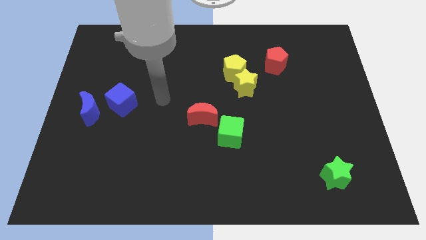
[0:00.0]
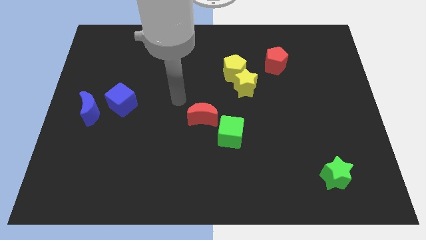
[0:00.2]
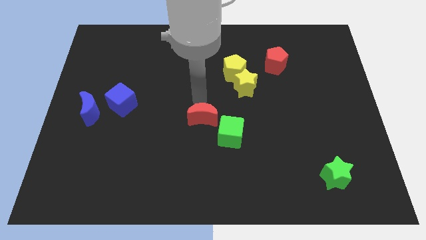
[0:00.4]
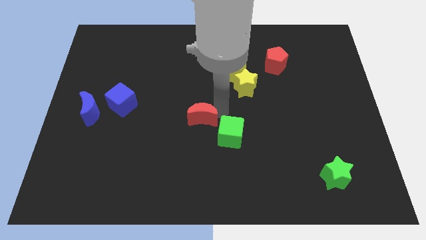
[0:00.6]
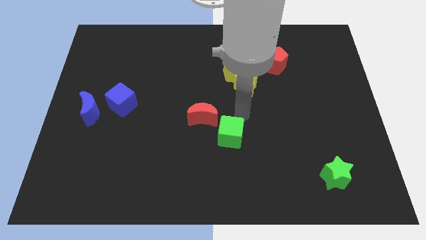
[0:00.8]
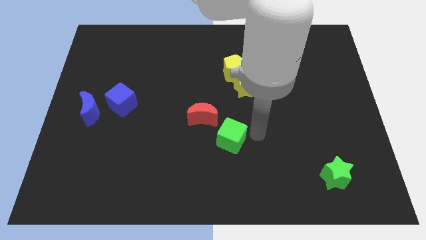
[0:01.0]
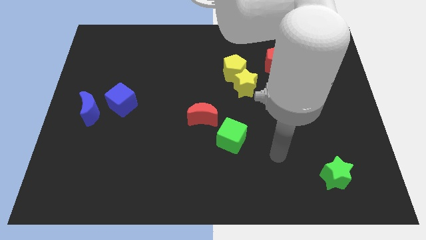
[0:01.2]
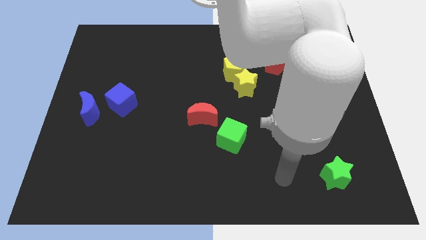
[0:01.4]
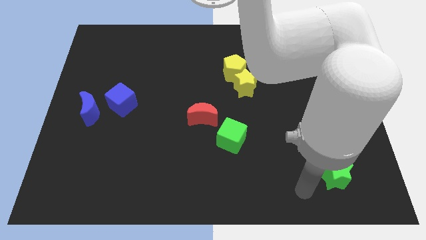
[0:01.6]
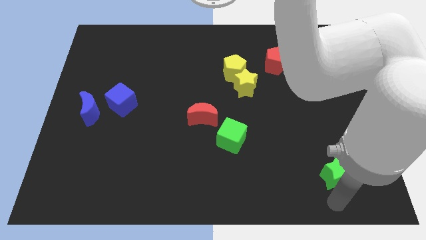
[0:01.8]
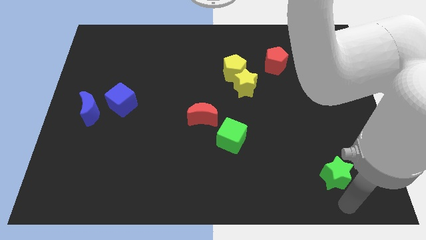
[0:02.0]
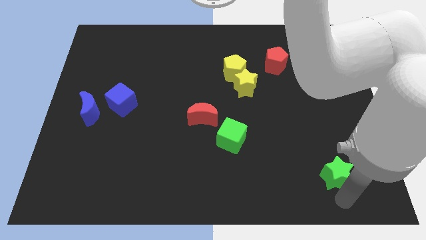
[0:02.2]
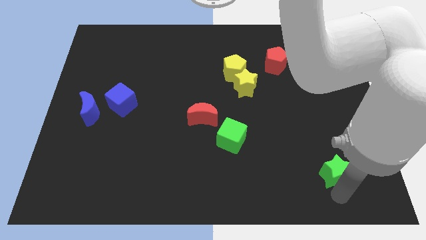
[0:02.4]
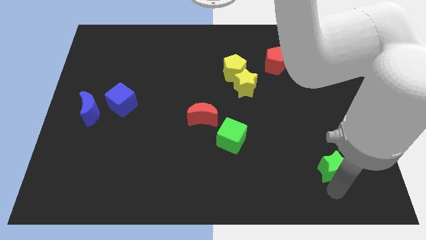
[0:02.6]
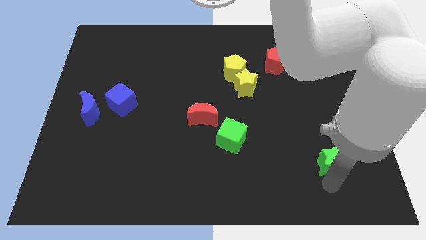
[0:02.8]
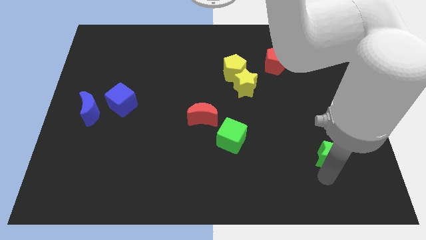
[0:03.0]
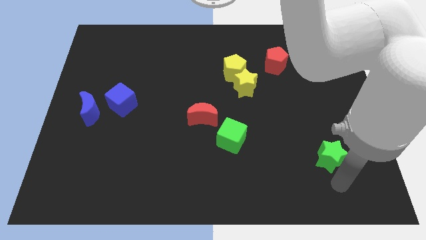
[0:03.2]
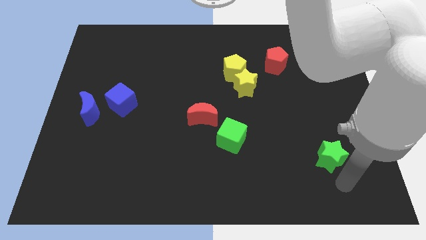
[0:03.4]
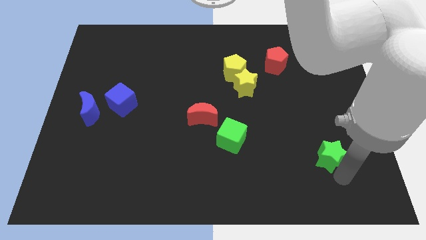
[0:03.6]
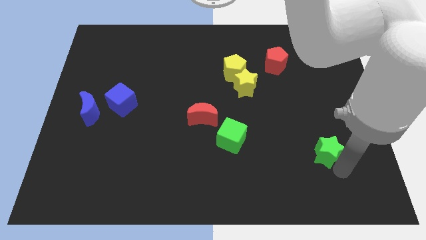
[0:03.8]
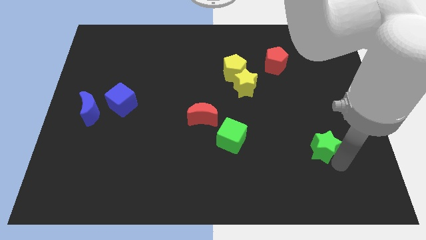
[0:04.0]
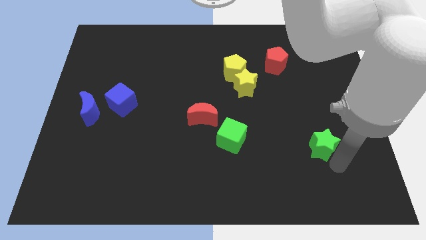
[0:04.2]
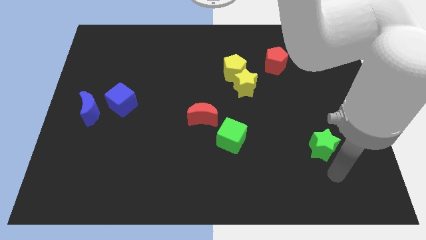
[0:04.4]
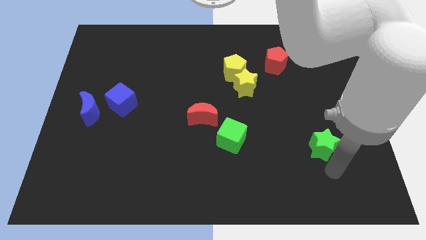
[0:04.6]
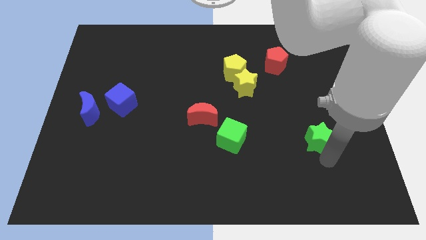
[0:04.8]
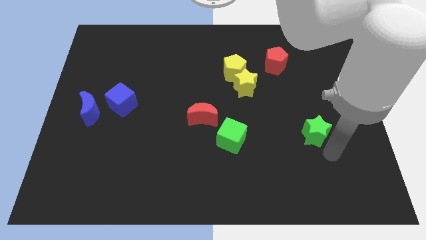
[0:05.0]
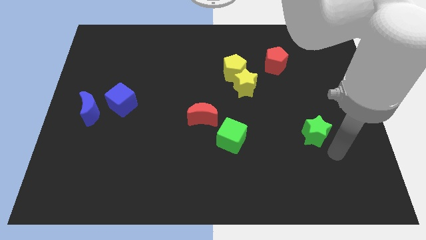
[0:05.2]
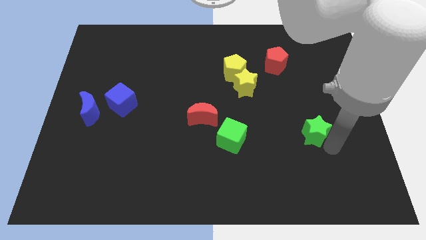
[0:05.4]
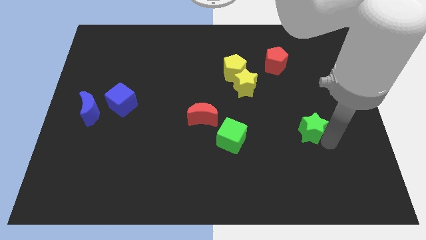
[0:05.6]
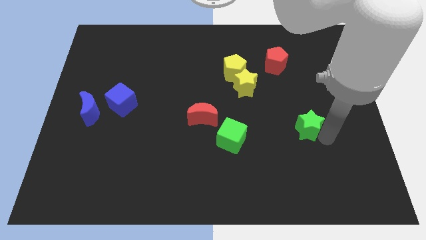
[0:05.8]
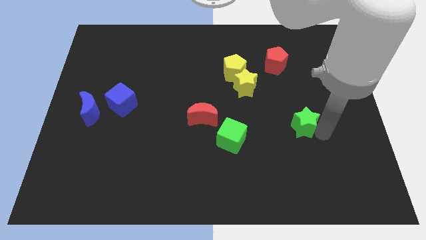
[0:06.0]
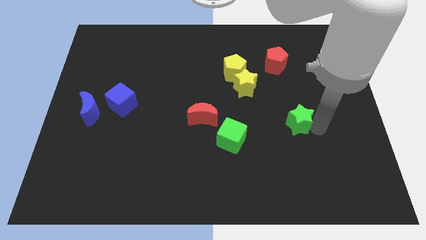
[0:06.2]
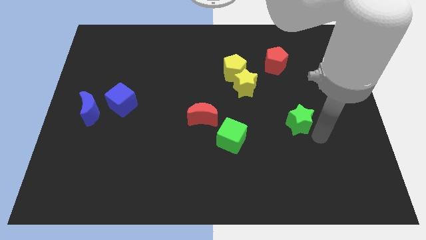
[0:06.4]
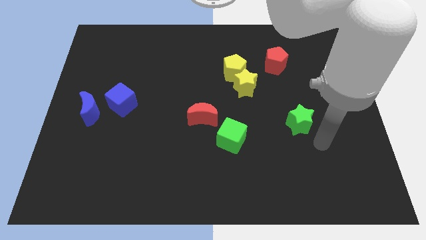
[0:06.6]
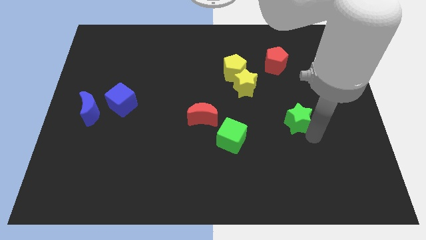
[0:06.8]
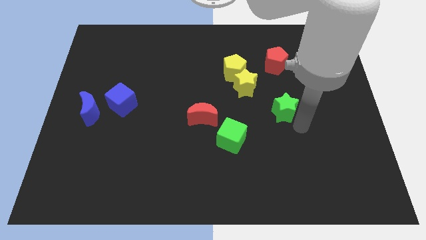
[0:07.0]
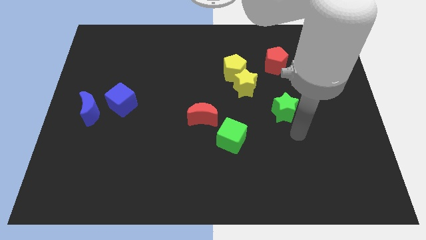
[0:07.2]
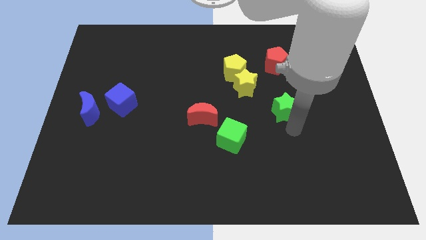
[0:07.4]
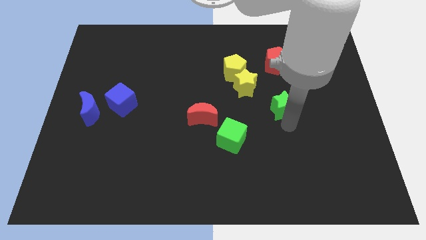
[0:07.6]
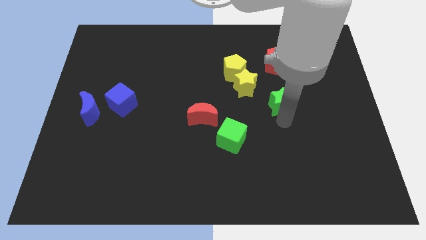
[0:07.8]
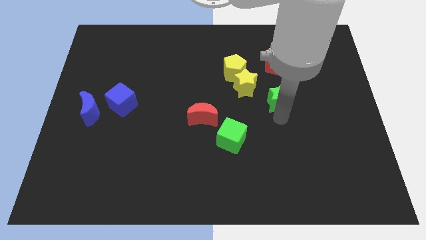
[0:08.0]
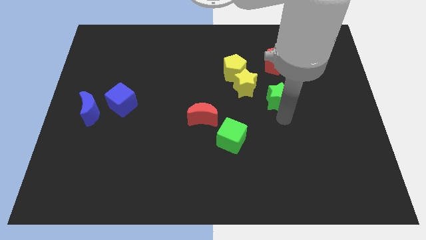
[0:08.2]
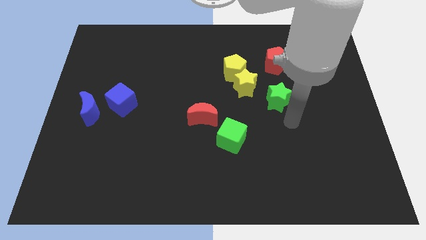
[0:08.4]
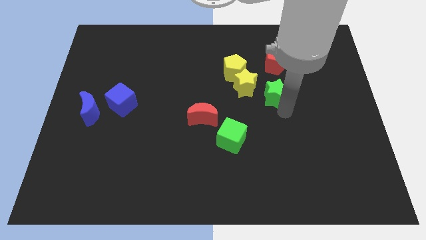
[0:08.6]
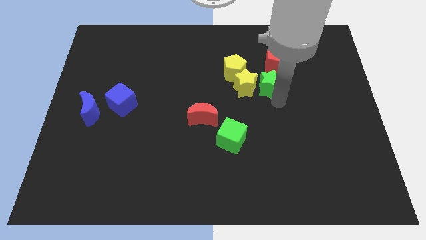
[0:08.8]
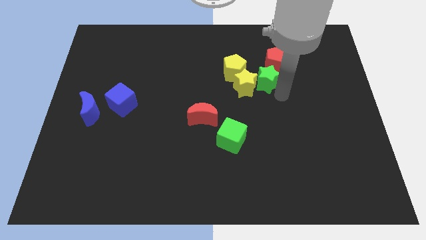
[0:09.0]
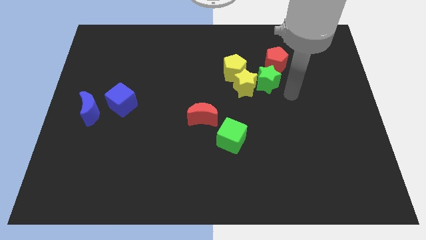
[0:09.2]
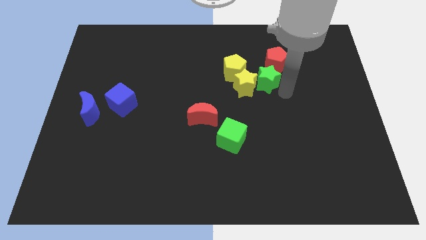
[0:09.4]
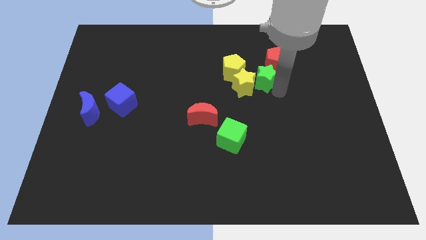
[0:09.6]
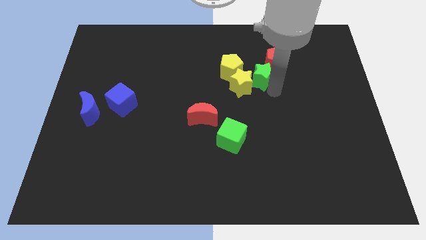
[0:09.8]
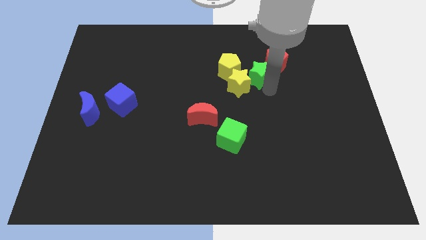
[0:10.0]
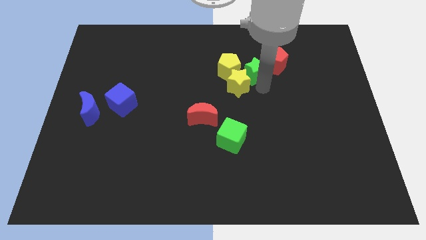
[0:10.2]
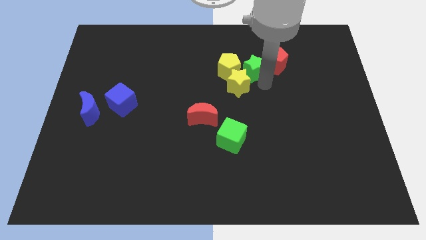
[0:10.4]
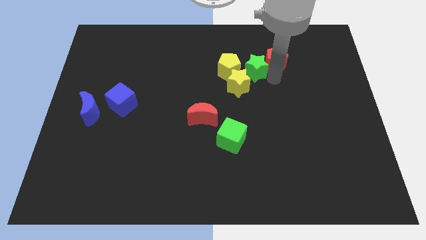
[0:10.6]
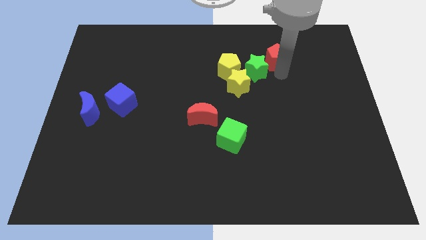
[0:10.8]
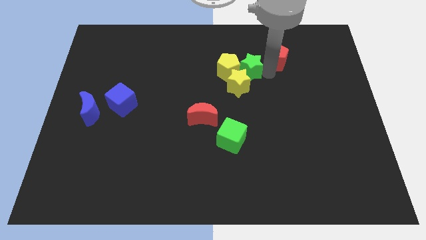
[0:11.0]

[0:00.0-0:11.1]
push the green star close to the yellow pentagon

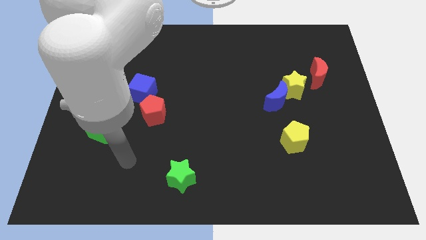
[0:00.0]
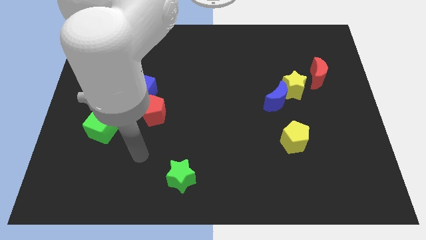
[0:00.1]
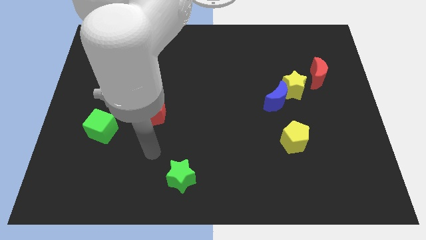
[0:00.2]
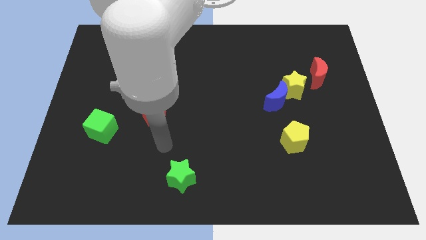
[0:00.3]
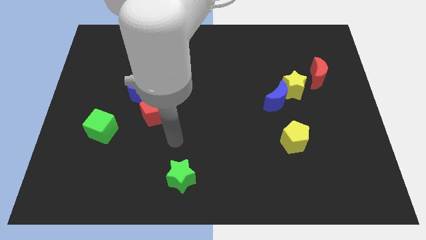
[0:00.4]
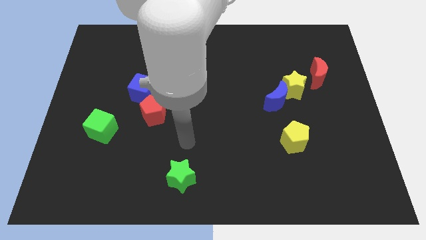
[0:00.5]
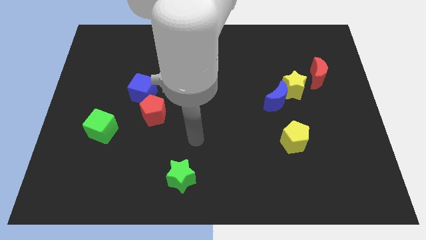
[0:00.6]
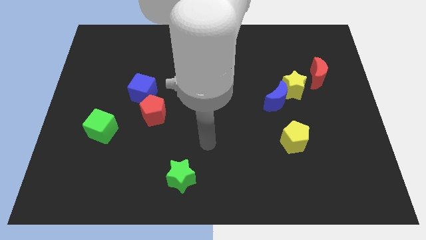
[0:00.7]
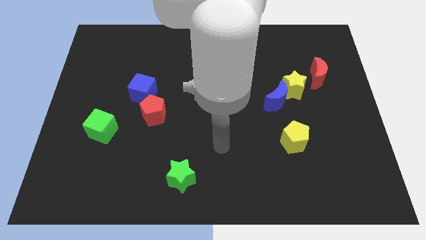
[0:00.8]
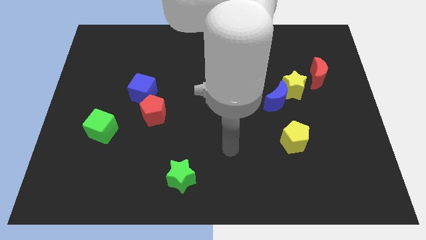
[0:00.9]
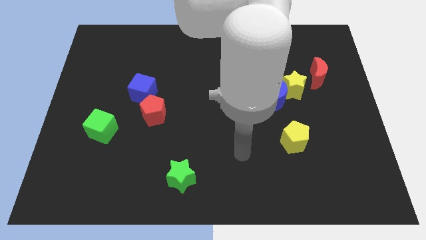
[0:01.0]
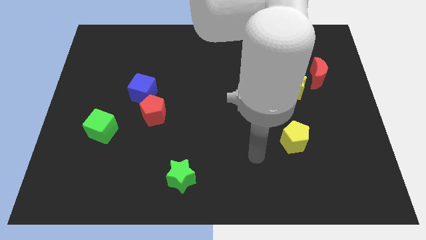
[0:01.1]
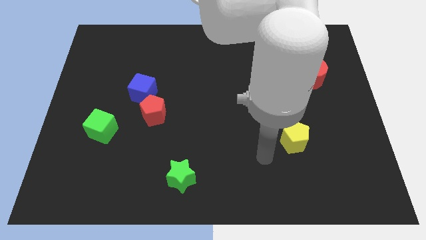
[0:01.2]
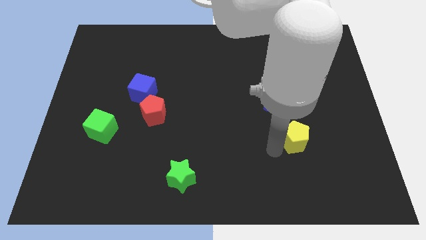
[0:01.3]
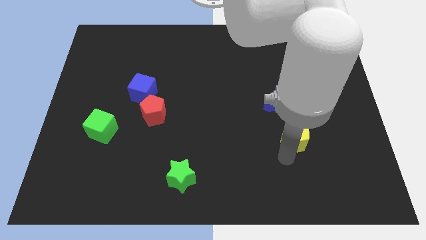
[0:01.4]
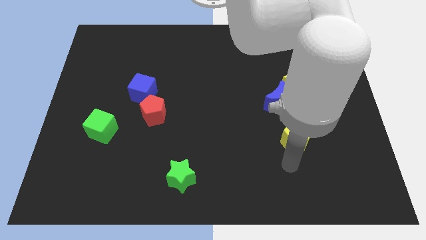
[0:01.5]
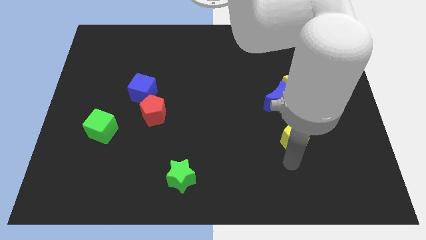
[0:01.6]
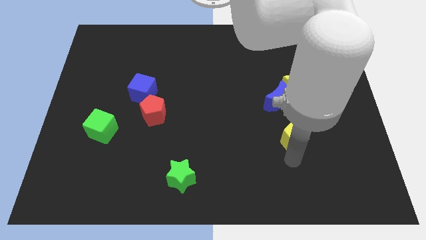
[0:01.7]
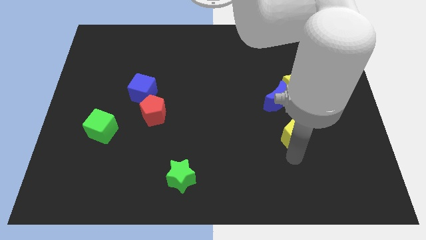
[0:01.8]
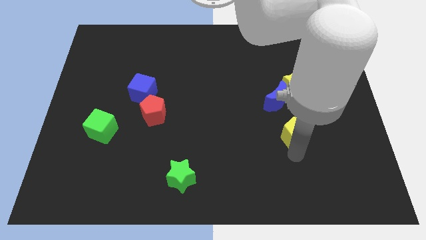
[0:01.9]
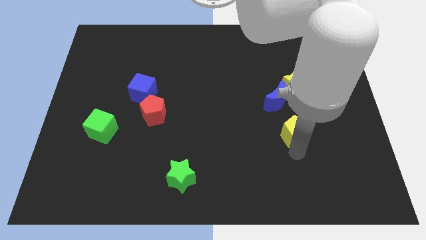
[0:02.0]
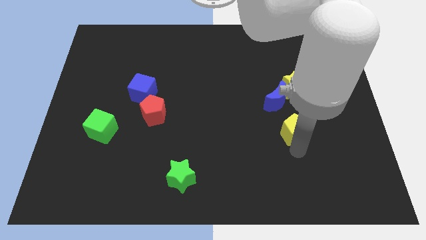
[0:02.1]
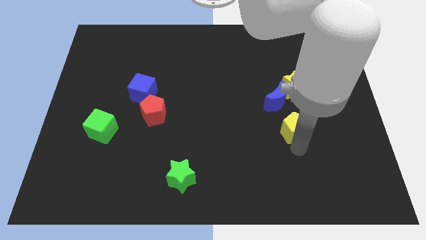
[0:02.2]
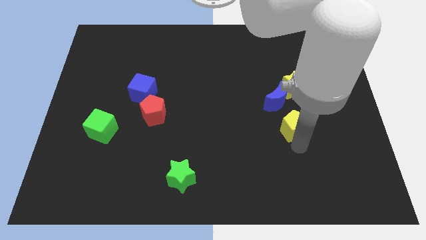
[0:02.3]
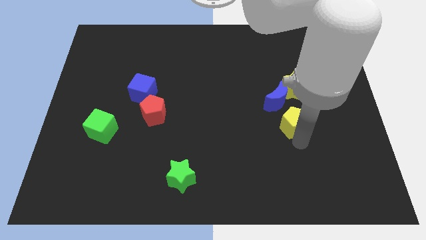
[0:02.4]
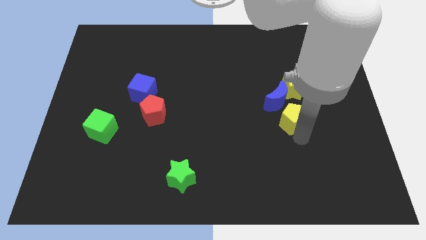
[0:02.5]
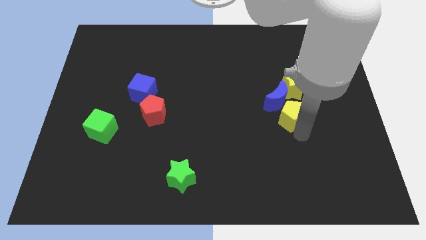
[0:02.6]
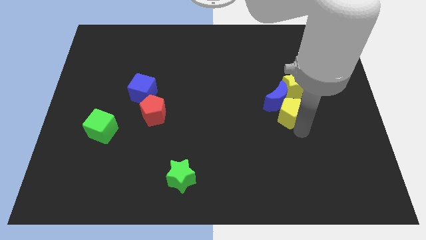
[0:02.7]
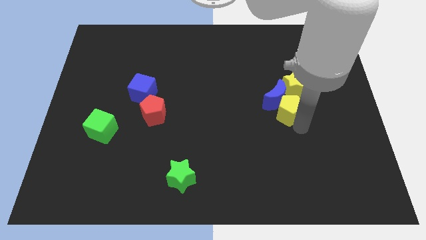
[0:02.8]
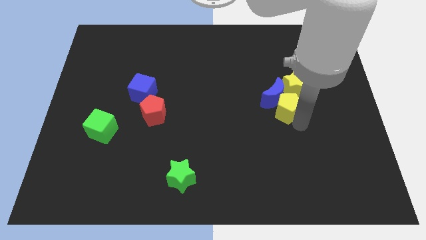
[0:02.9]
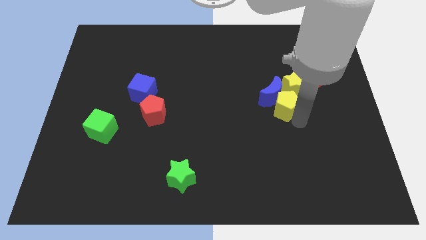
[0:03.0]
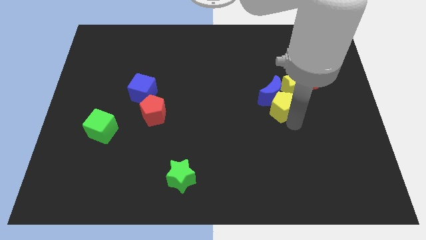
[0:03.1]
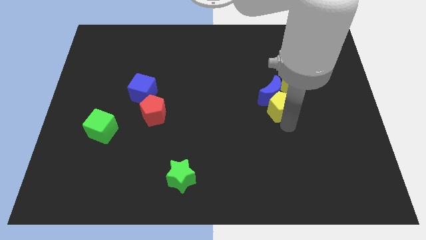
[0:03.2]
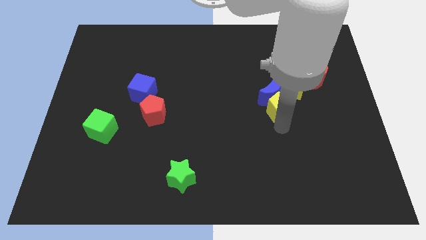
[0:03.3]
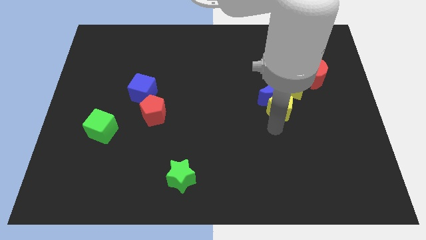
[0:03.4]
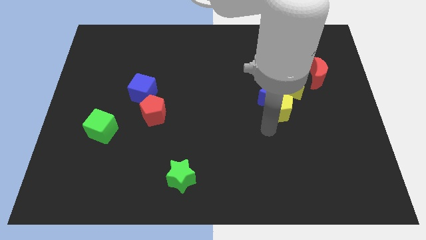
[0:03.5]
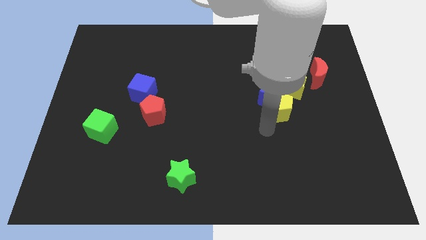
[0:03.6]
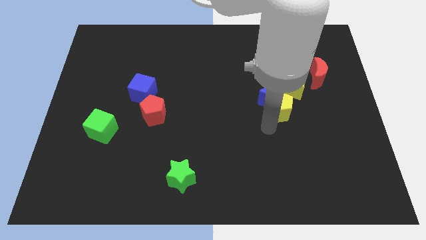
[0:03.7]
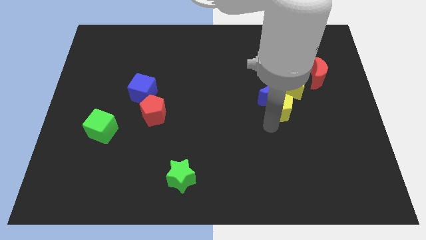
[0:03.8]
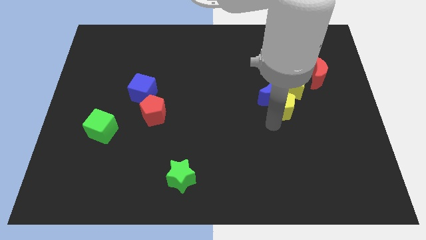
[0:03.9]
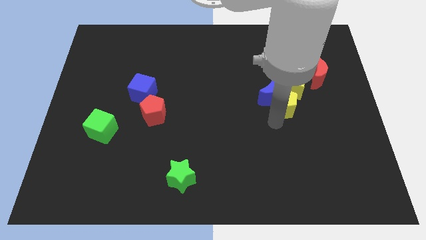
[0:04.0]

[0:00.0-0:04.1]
move the yellow pentagon close to the yellow star
